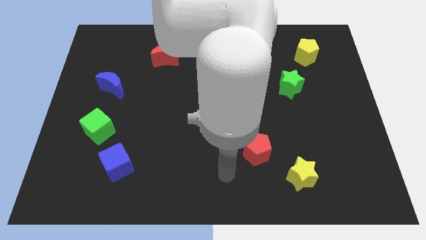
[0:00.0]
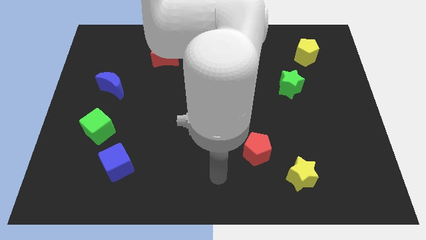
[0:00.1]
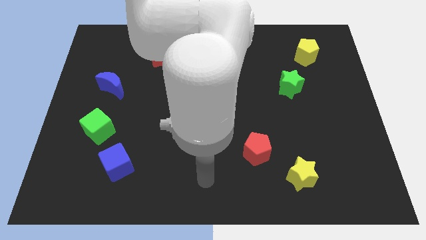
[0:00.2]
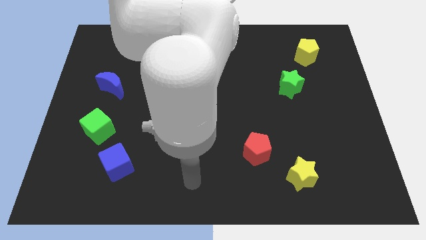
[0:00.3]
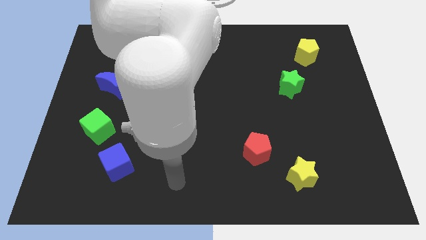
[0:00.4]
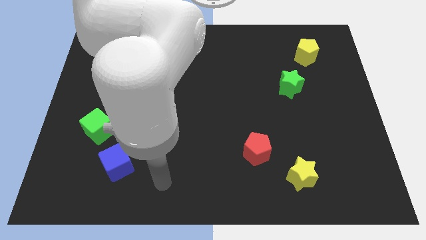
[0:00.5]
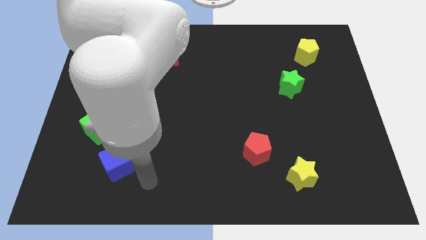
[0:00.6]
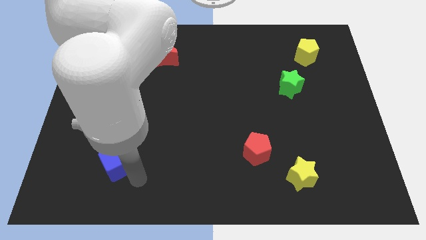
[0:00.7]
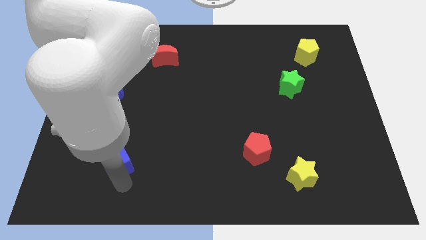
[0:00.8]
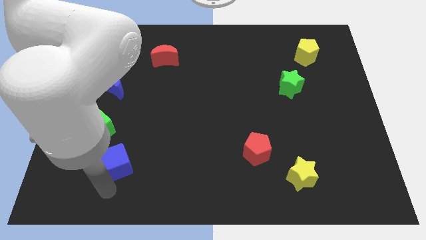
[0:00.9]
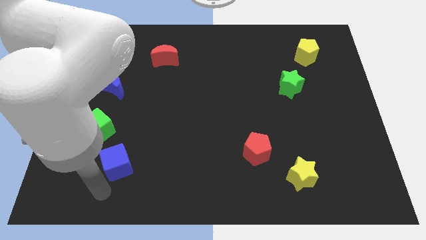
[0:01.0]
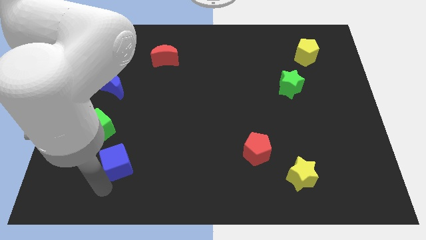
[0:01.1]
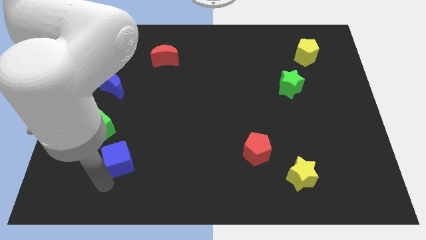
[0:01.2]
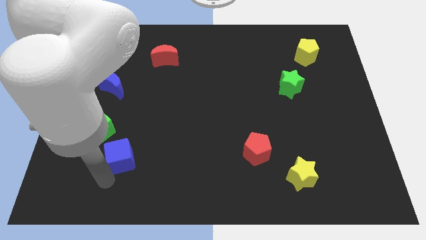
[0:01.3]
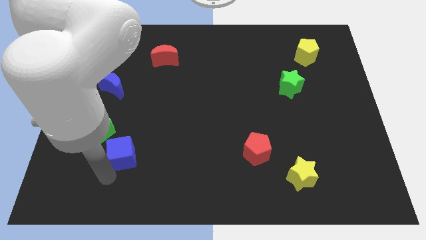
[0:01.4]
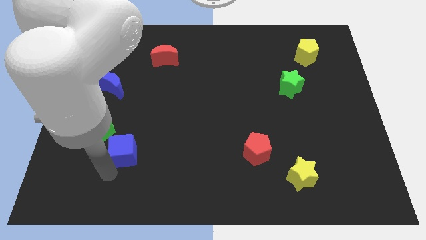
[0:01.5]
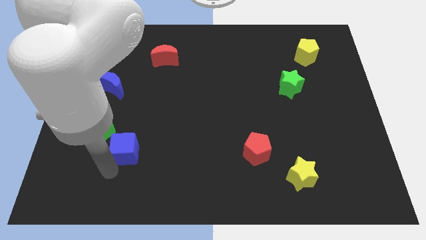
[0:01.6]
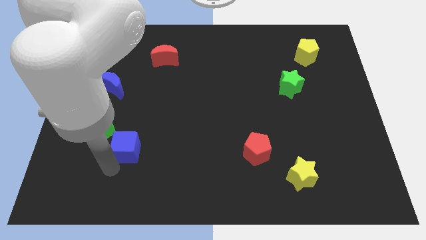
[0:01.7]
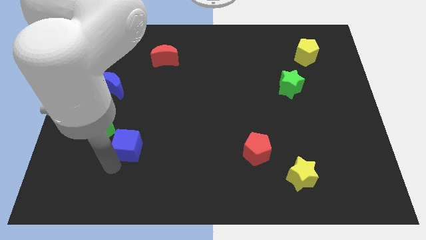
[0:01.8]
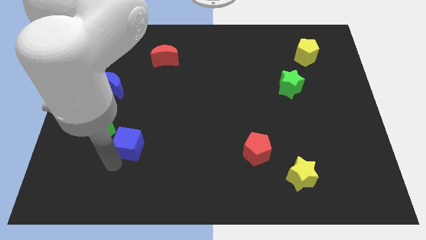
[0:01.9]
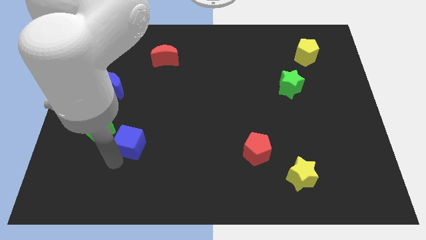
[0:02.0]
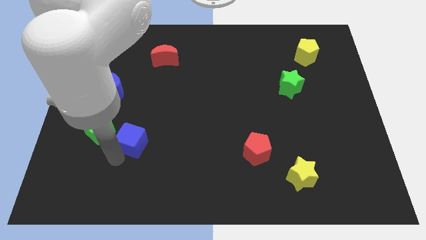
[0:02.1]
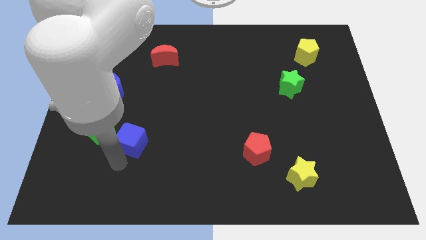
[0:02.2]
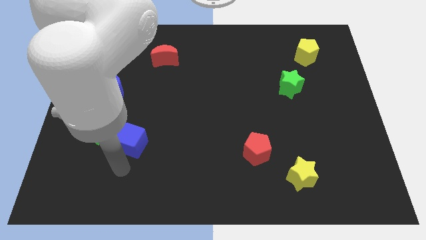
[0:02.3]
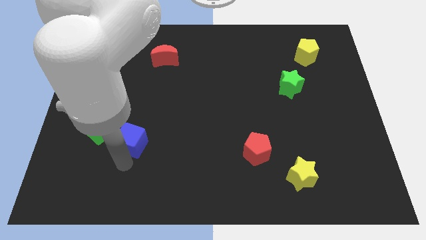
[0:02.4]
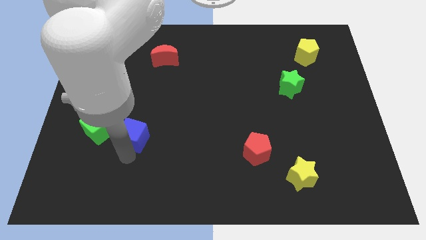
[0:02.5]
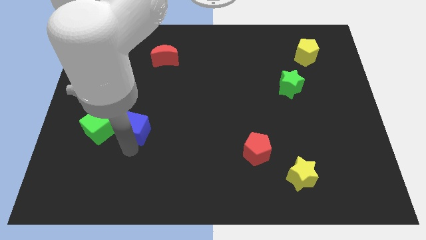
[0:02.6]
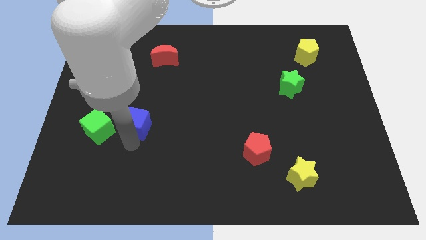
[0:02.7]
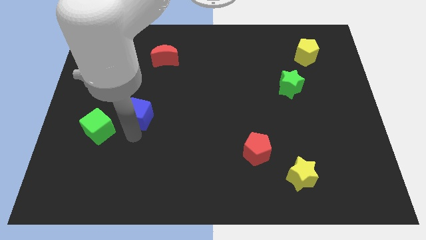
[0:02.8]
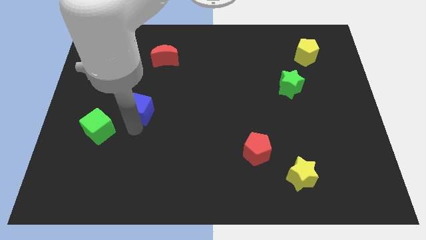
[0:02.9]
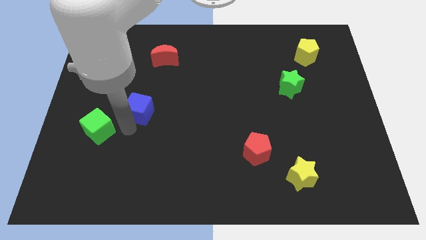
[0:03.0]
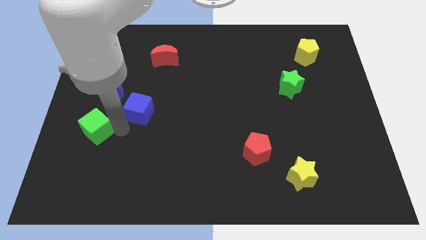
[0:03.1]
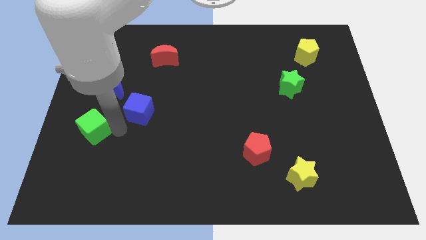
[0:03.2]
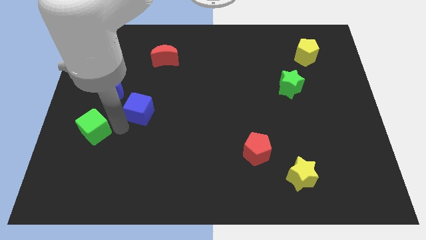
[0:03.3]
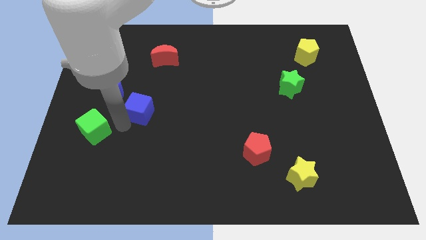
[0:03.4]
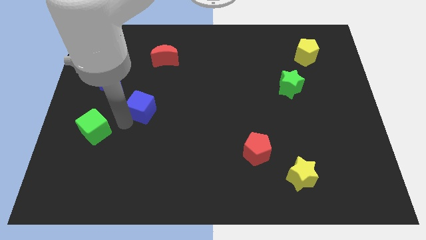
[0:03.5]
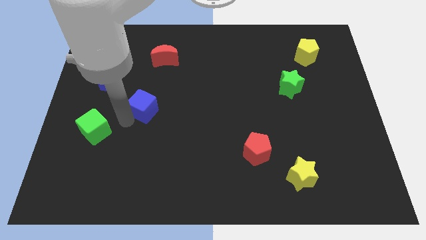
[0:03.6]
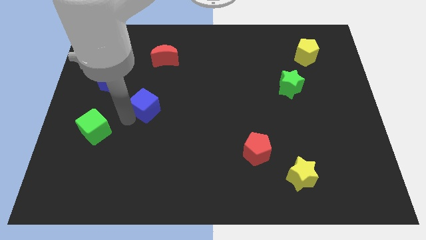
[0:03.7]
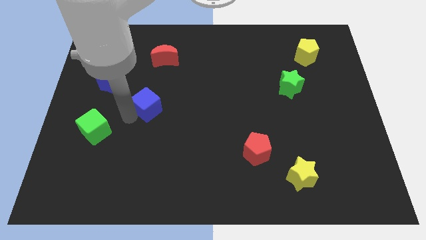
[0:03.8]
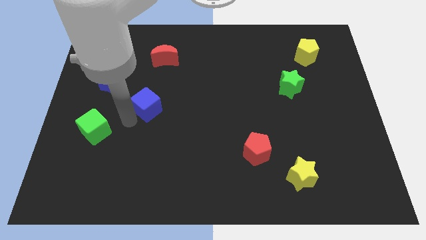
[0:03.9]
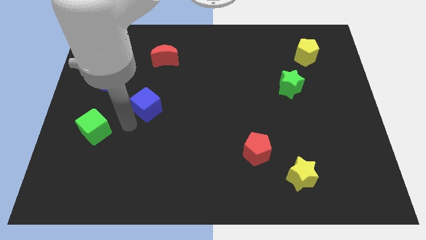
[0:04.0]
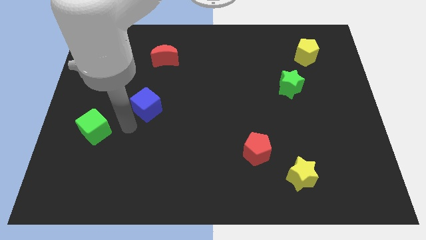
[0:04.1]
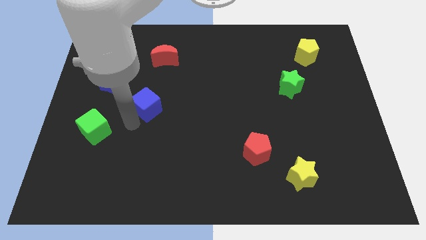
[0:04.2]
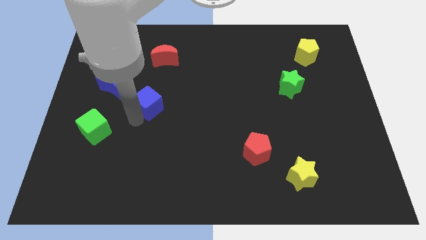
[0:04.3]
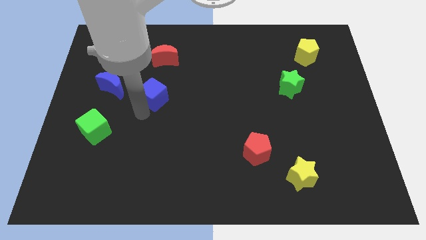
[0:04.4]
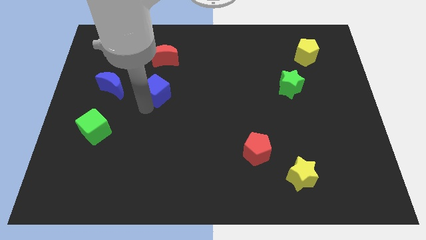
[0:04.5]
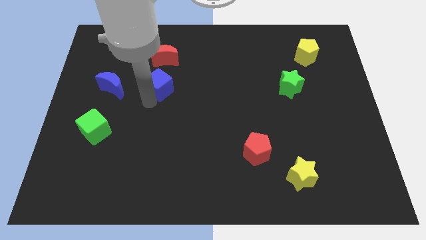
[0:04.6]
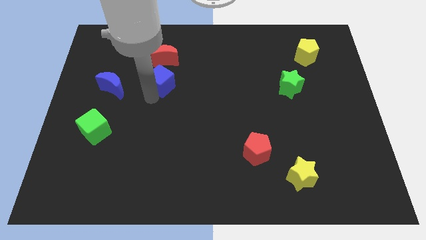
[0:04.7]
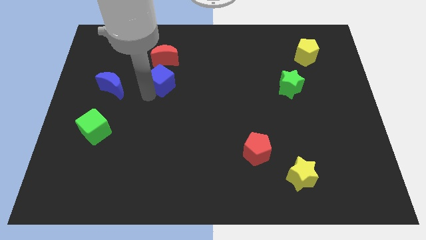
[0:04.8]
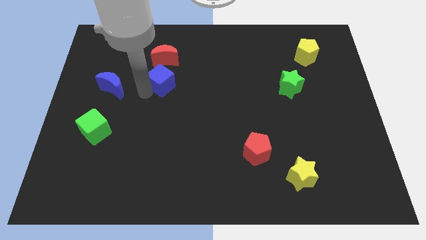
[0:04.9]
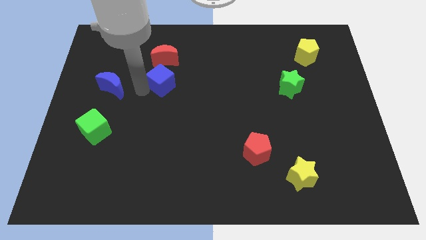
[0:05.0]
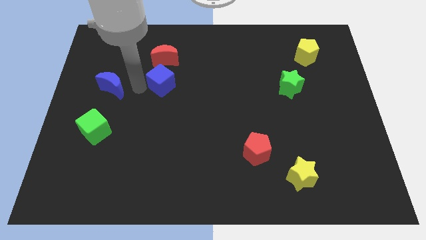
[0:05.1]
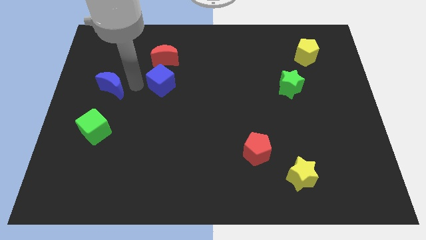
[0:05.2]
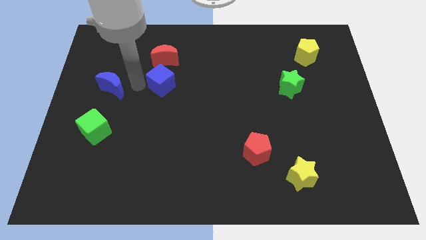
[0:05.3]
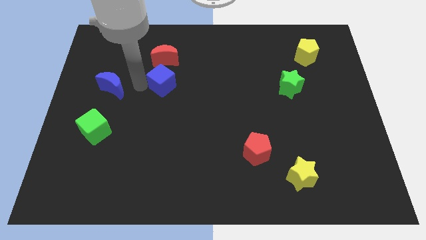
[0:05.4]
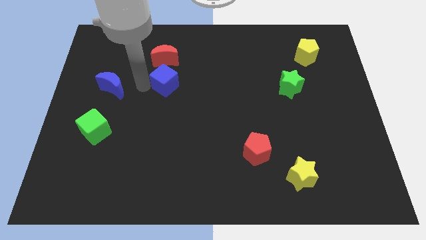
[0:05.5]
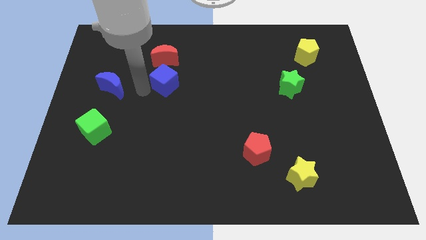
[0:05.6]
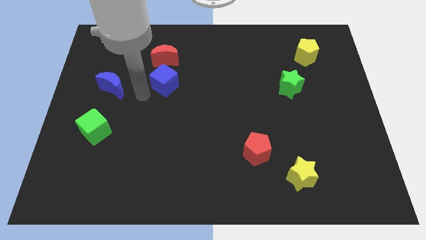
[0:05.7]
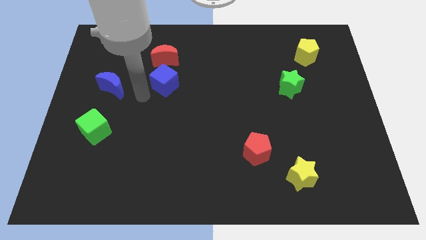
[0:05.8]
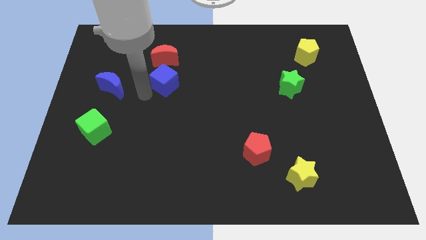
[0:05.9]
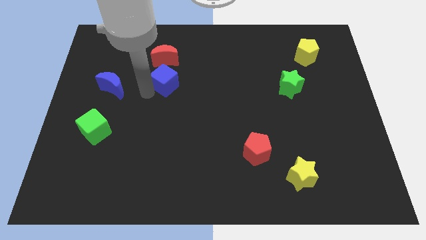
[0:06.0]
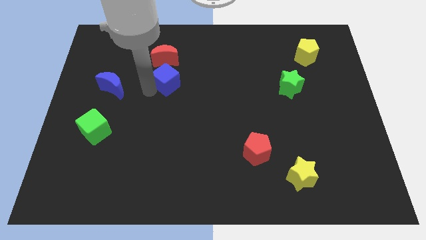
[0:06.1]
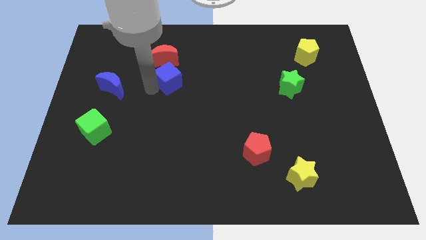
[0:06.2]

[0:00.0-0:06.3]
slide the blue cube to the bottom right of the red moon

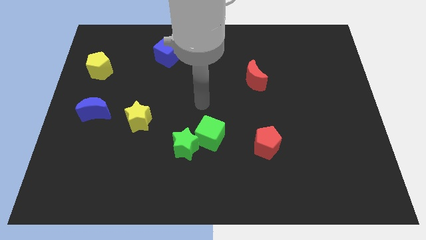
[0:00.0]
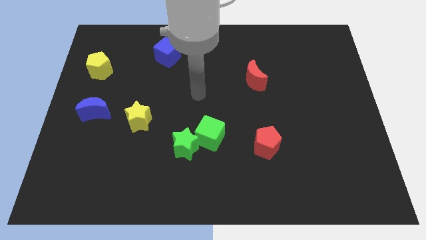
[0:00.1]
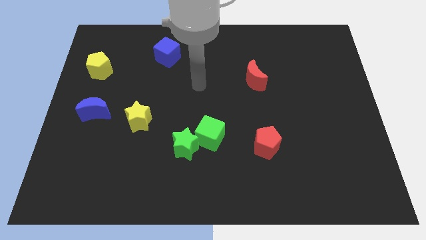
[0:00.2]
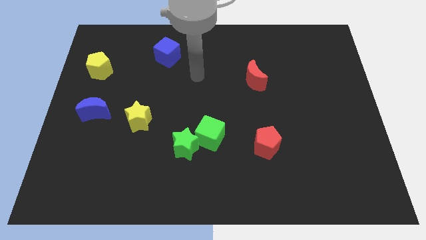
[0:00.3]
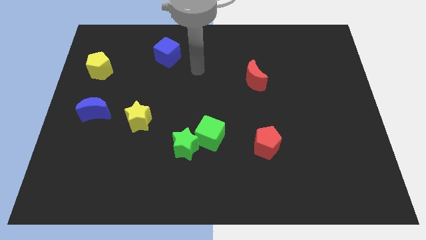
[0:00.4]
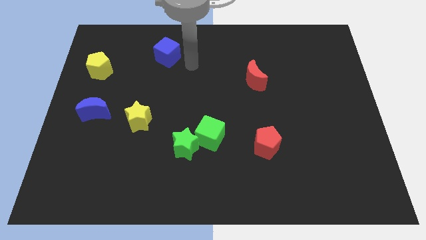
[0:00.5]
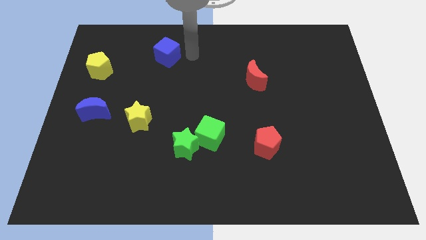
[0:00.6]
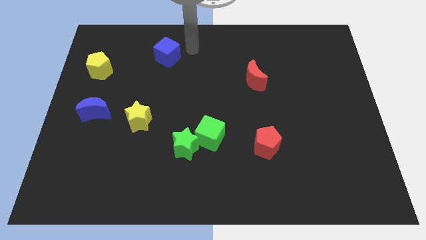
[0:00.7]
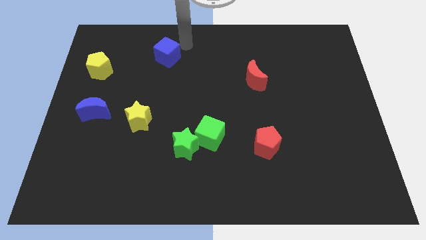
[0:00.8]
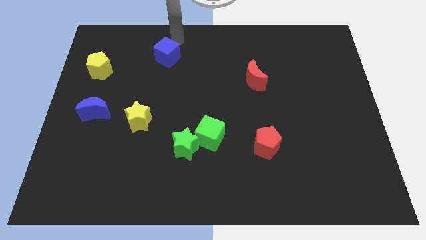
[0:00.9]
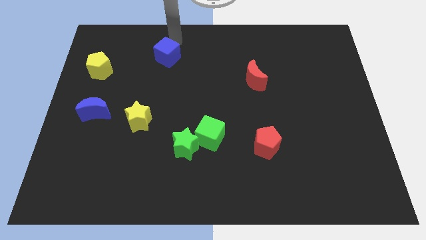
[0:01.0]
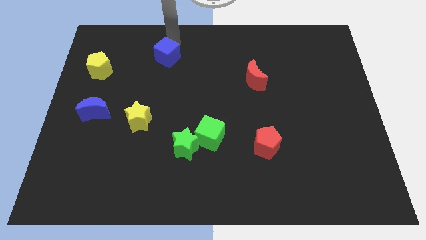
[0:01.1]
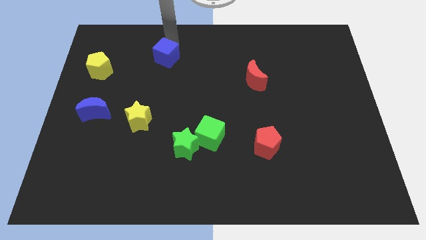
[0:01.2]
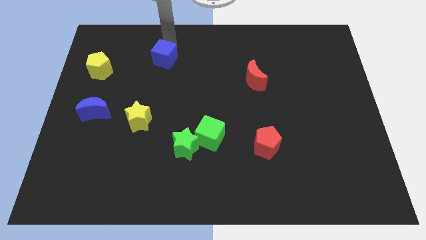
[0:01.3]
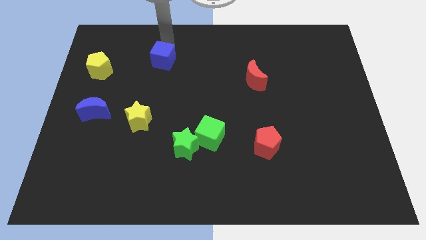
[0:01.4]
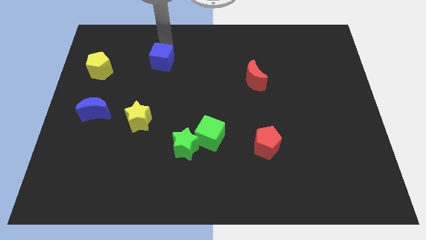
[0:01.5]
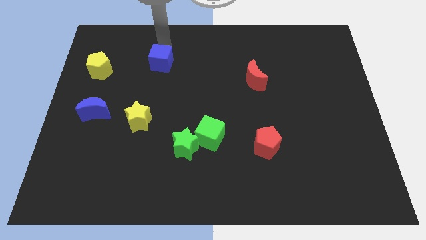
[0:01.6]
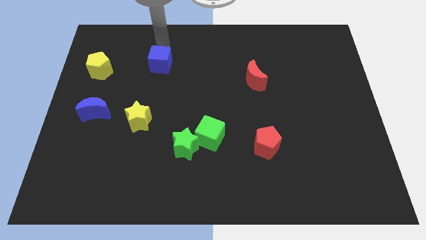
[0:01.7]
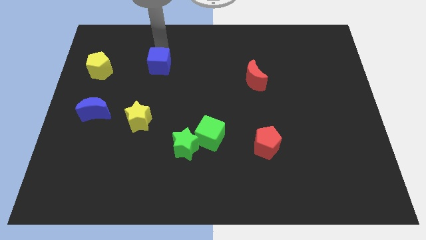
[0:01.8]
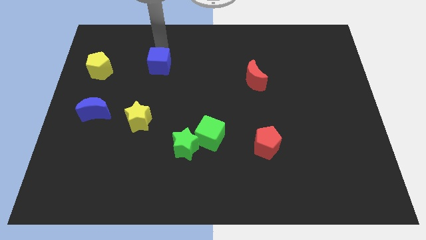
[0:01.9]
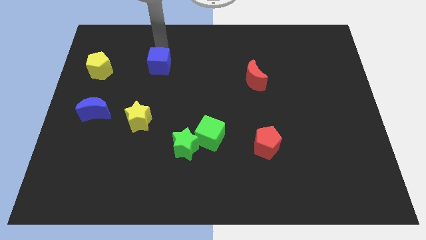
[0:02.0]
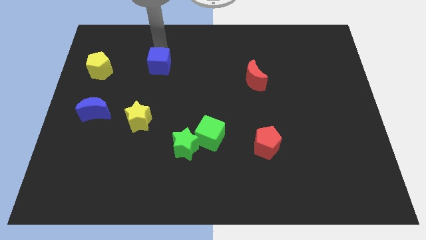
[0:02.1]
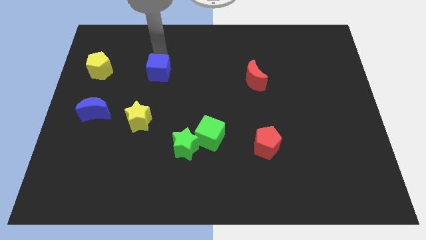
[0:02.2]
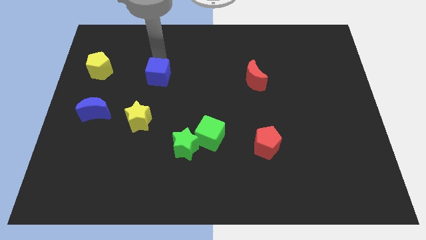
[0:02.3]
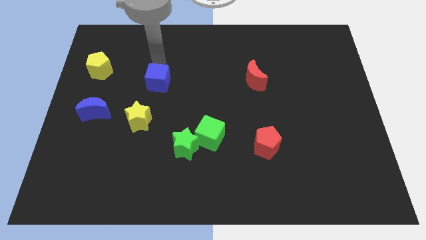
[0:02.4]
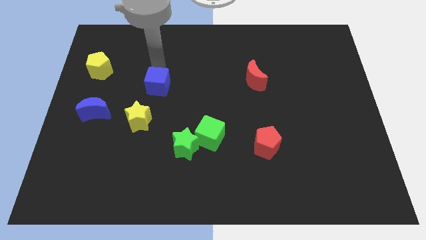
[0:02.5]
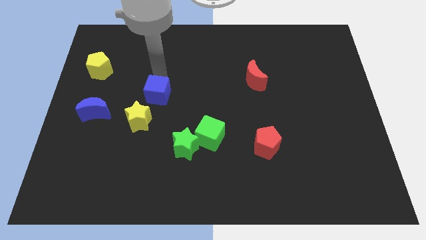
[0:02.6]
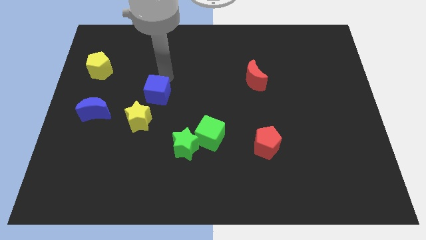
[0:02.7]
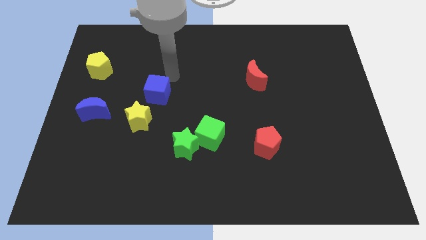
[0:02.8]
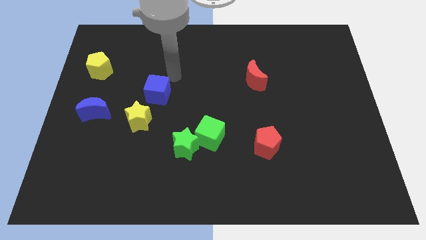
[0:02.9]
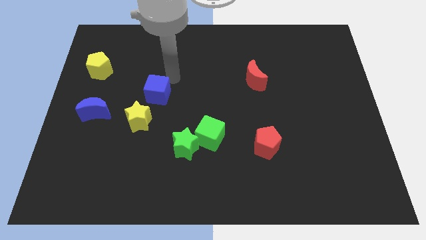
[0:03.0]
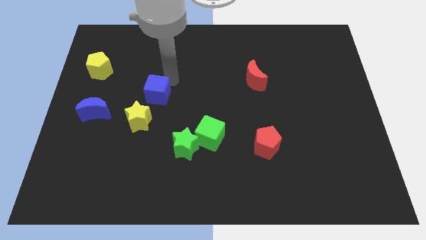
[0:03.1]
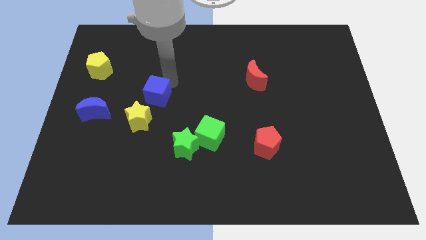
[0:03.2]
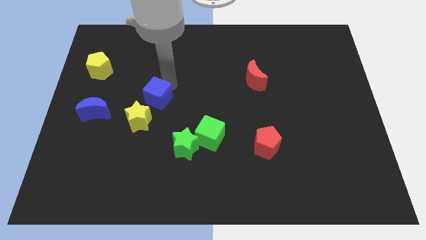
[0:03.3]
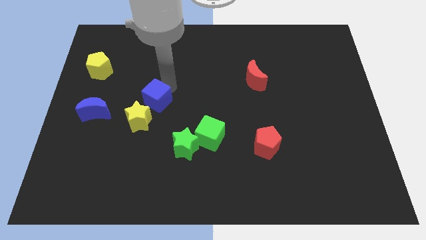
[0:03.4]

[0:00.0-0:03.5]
slide the blue cube to the right of the blue moon
